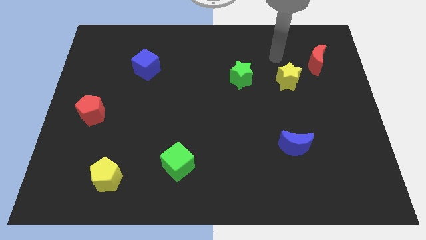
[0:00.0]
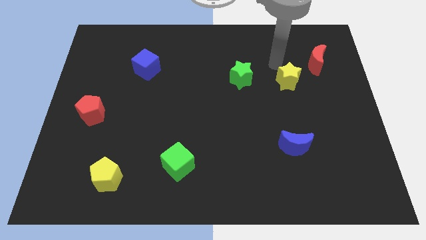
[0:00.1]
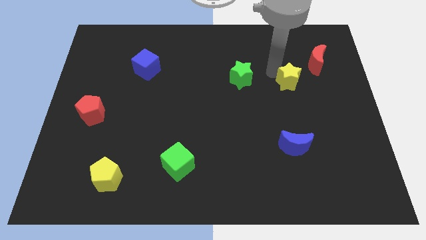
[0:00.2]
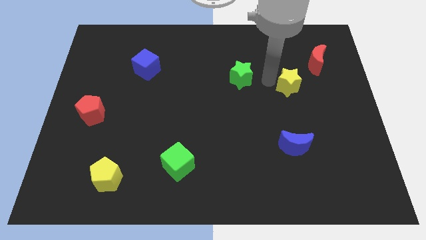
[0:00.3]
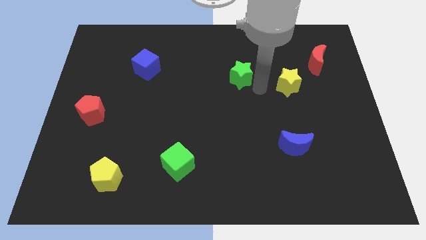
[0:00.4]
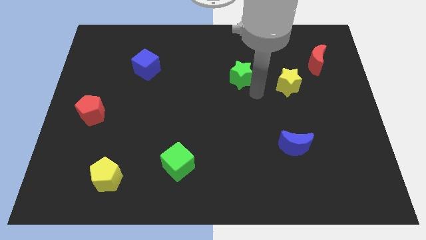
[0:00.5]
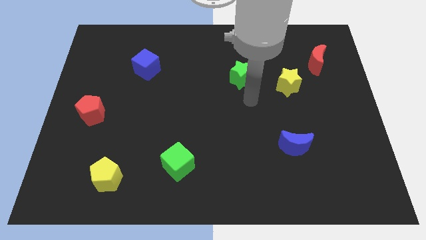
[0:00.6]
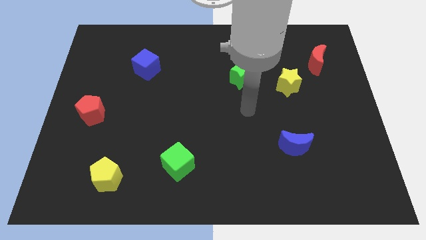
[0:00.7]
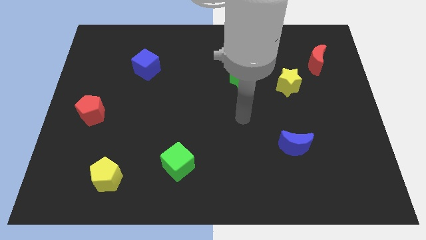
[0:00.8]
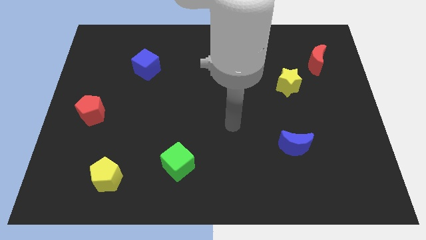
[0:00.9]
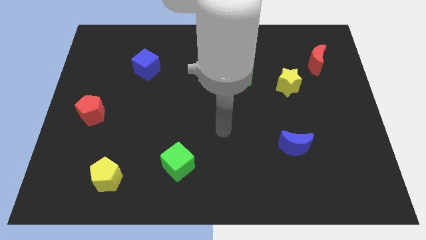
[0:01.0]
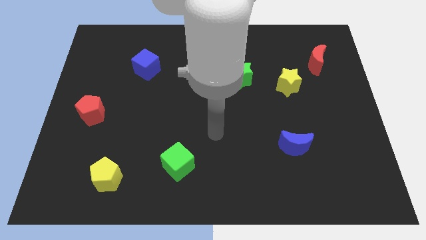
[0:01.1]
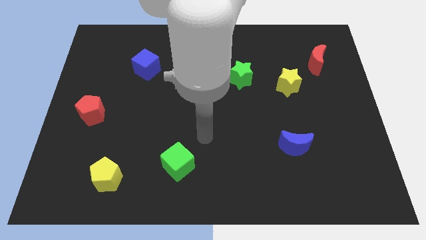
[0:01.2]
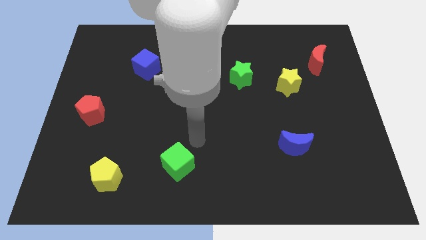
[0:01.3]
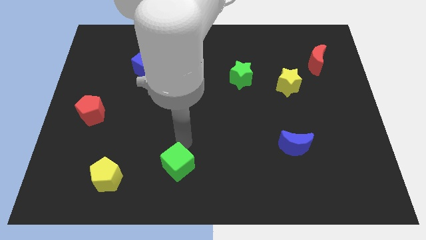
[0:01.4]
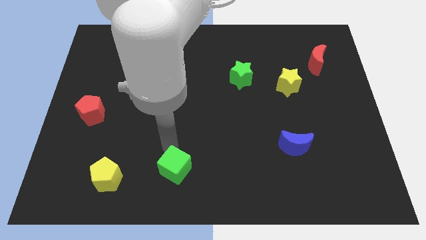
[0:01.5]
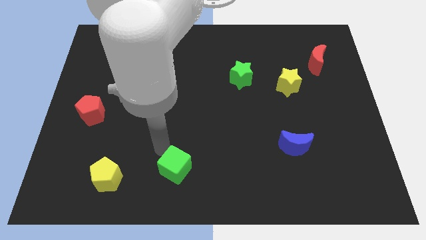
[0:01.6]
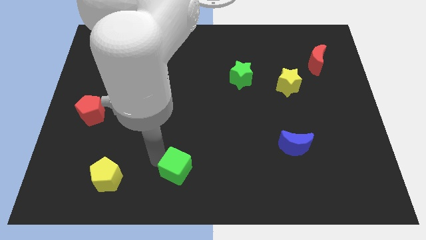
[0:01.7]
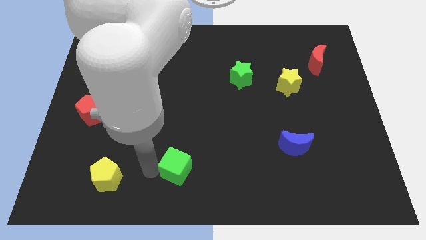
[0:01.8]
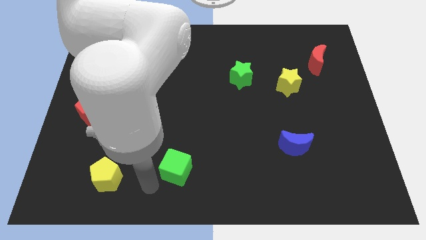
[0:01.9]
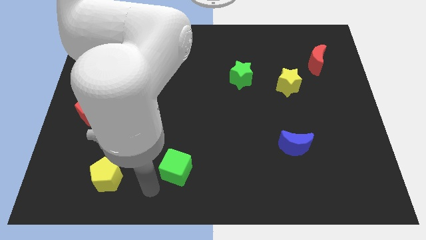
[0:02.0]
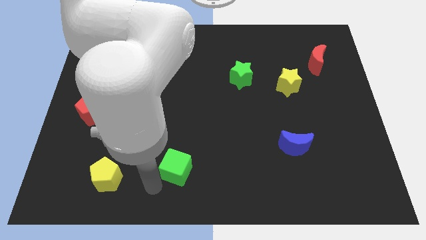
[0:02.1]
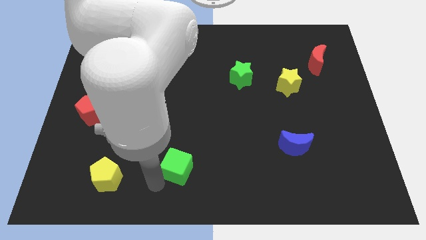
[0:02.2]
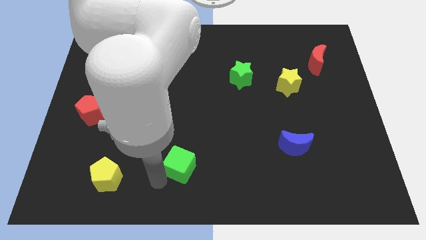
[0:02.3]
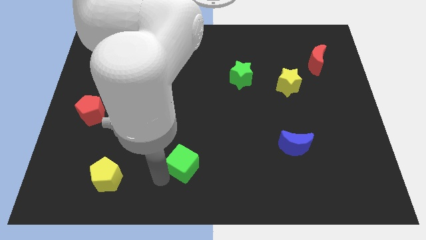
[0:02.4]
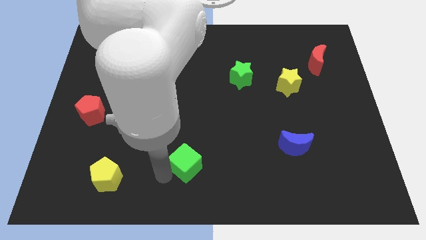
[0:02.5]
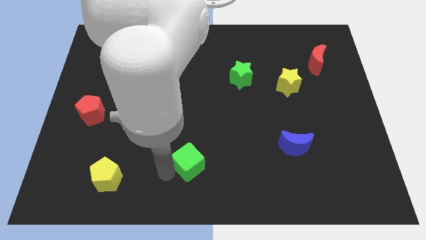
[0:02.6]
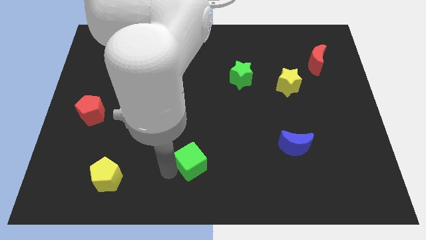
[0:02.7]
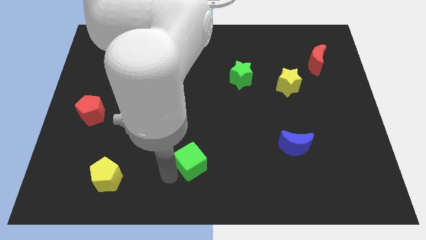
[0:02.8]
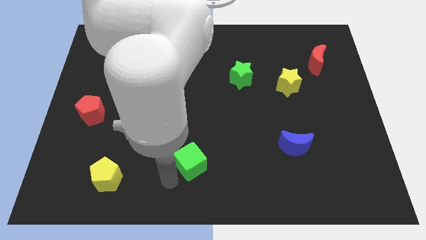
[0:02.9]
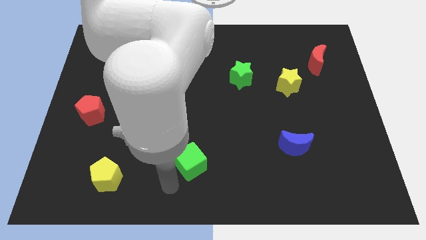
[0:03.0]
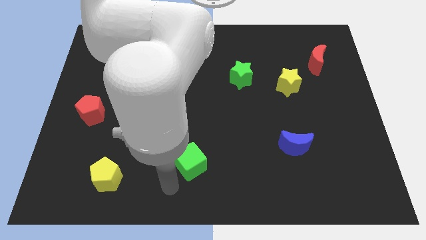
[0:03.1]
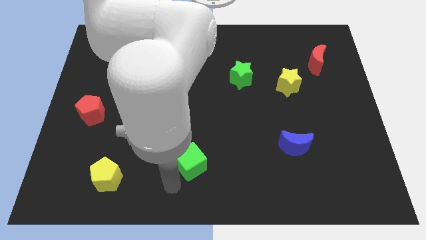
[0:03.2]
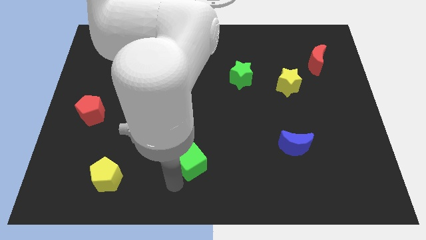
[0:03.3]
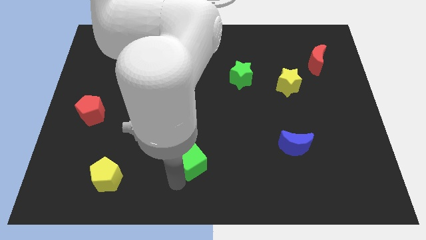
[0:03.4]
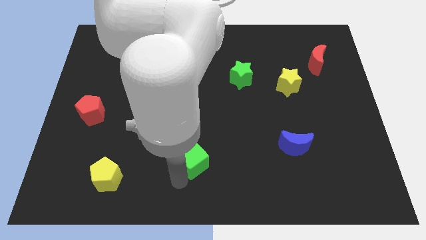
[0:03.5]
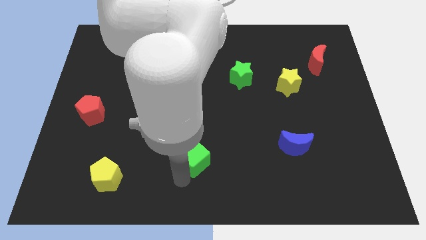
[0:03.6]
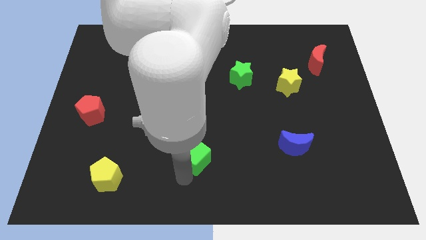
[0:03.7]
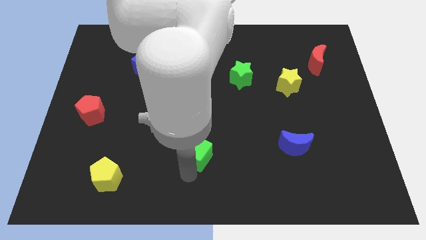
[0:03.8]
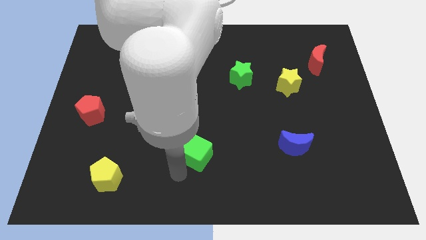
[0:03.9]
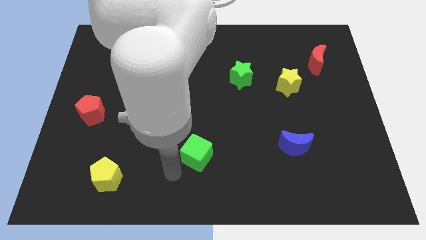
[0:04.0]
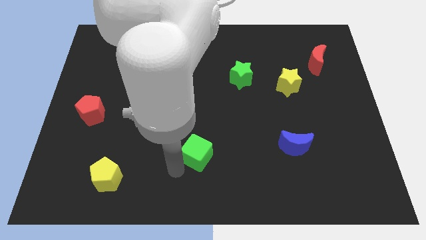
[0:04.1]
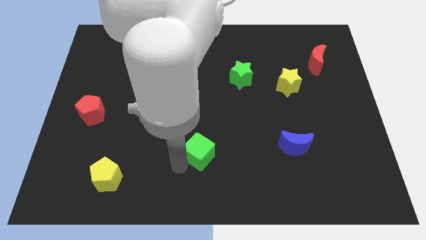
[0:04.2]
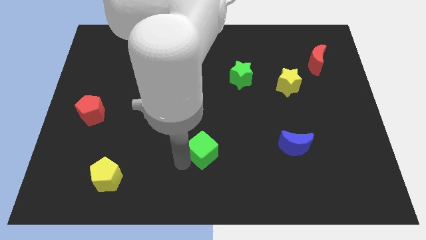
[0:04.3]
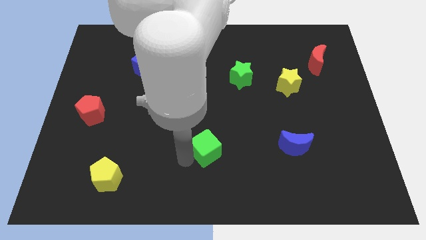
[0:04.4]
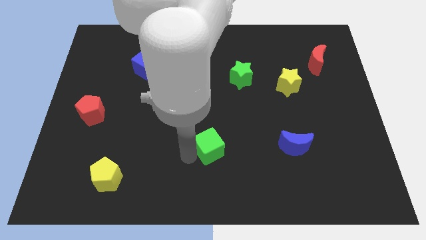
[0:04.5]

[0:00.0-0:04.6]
slightly push the green cube up and right diagonally

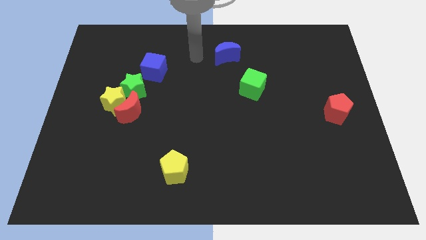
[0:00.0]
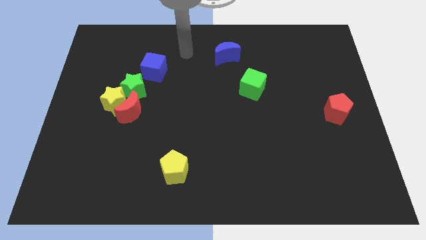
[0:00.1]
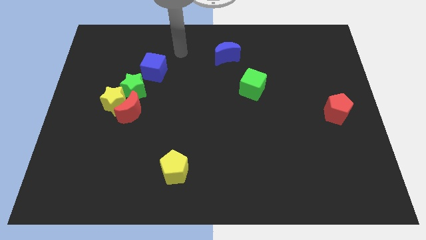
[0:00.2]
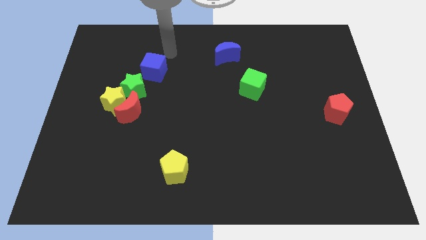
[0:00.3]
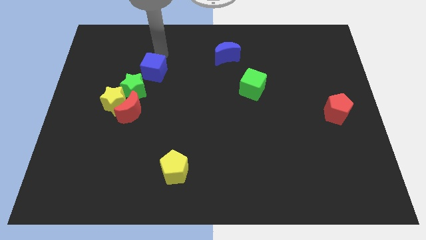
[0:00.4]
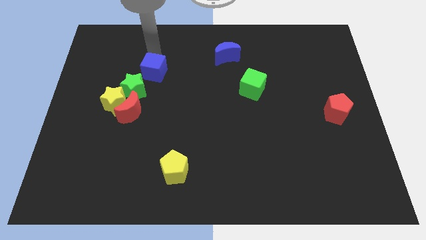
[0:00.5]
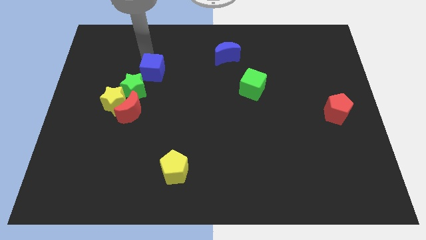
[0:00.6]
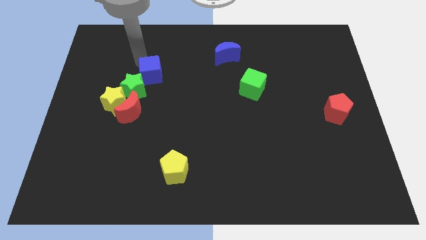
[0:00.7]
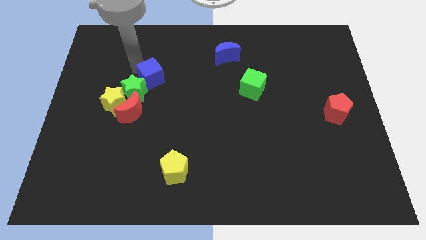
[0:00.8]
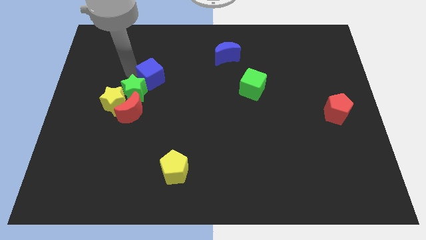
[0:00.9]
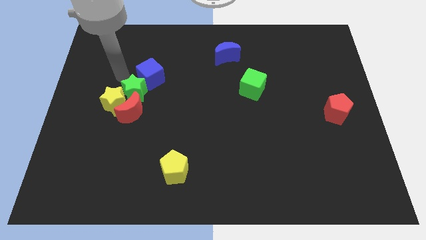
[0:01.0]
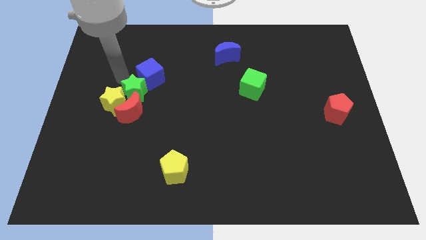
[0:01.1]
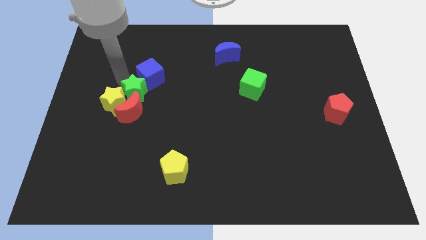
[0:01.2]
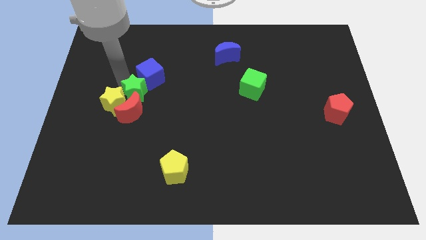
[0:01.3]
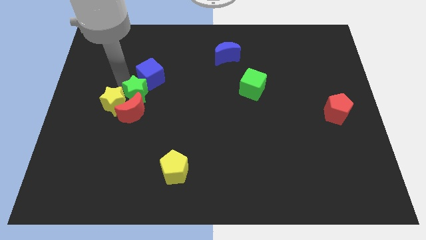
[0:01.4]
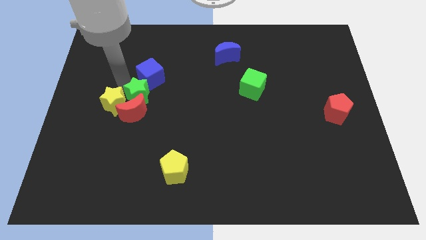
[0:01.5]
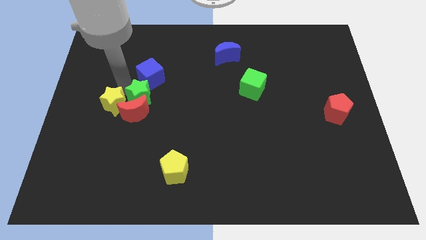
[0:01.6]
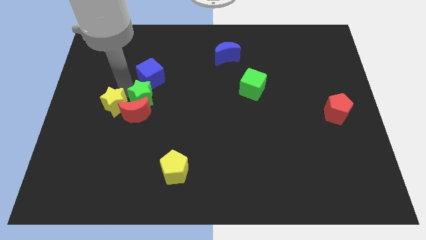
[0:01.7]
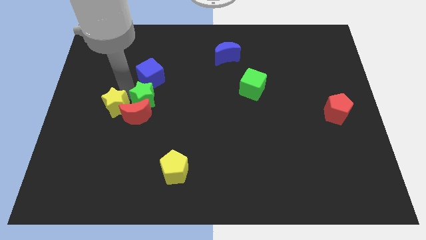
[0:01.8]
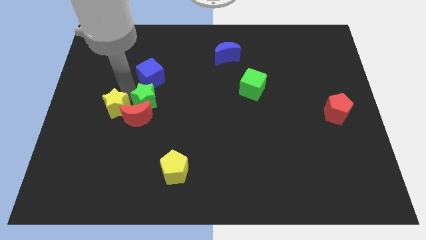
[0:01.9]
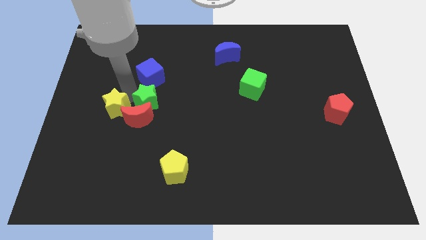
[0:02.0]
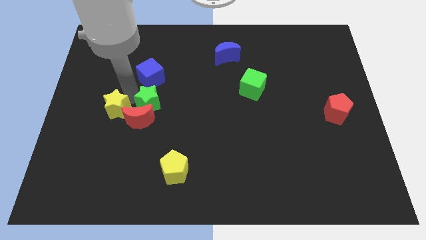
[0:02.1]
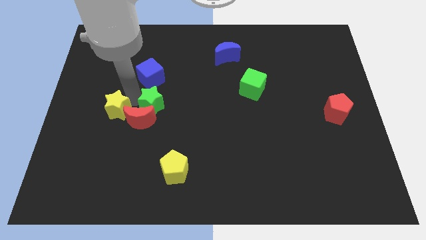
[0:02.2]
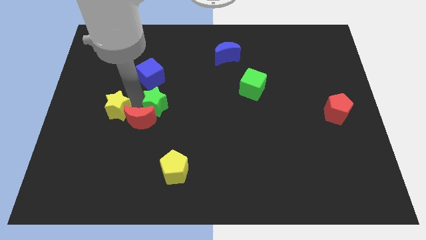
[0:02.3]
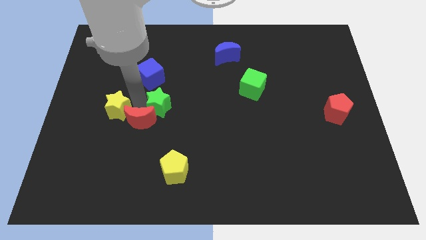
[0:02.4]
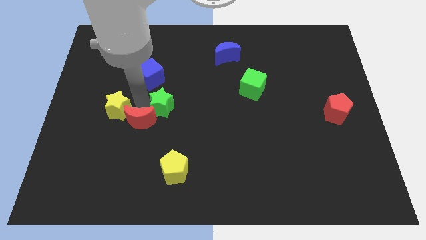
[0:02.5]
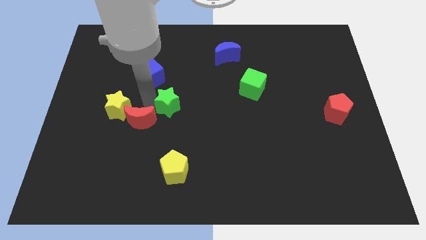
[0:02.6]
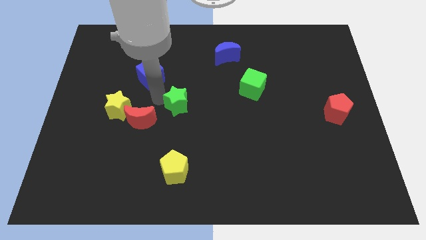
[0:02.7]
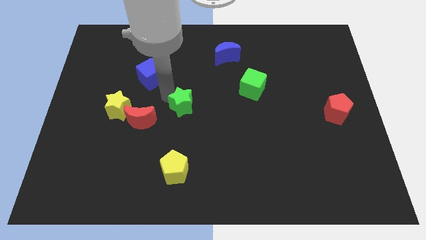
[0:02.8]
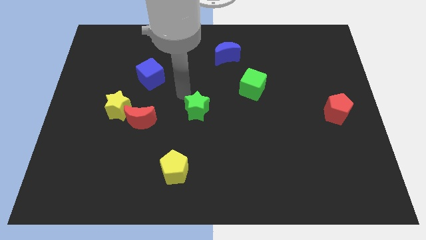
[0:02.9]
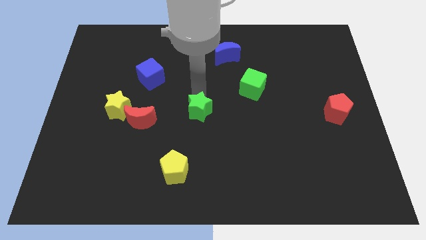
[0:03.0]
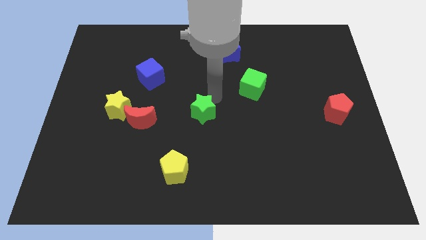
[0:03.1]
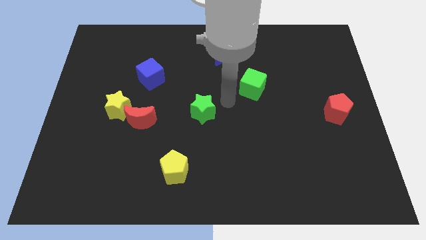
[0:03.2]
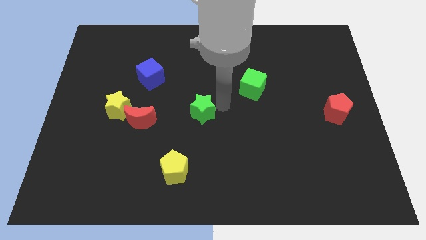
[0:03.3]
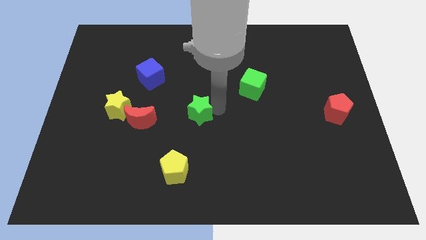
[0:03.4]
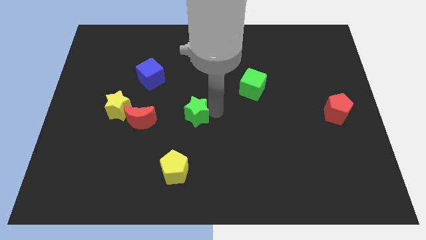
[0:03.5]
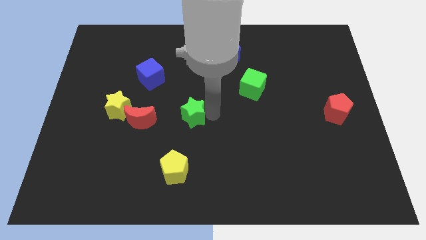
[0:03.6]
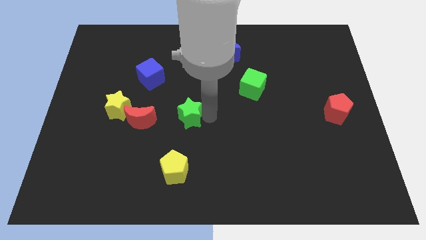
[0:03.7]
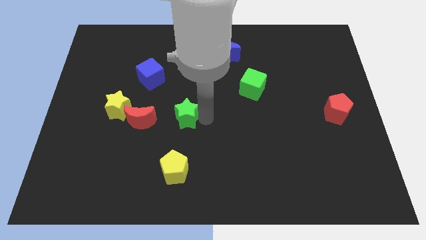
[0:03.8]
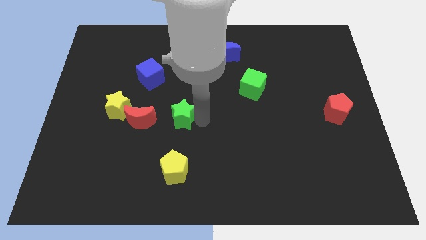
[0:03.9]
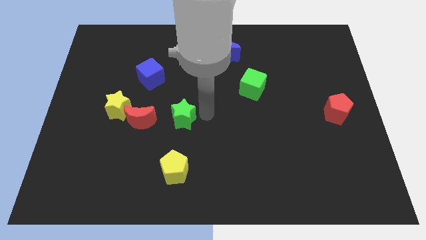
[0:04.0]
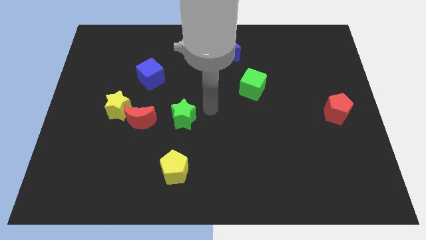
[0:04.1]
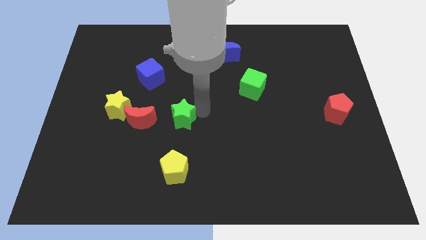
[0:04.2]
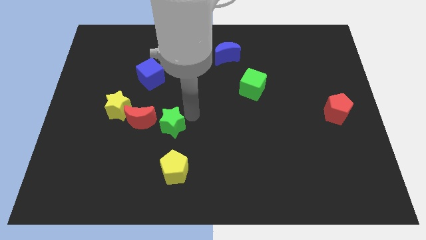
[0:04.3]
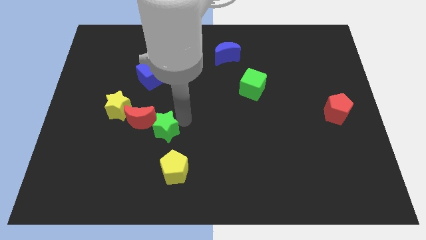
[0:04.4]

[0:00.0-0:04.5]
slide the green star down a bit
